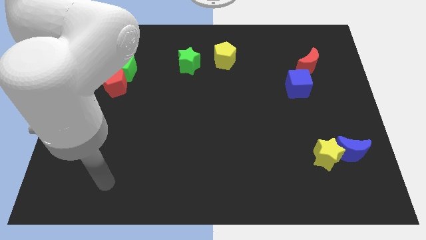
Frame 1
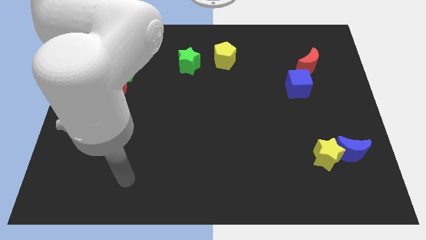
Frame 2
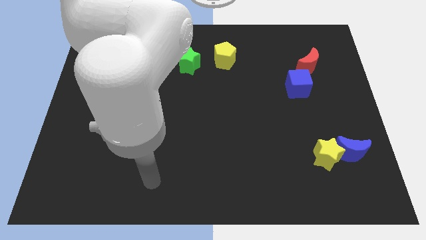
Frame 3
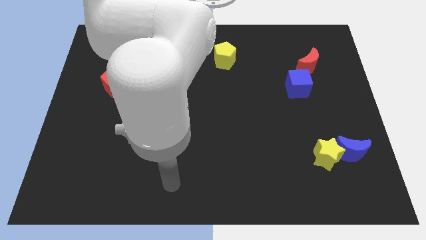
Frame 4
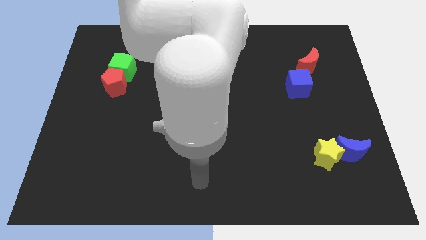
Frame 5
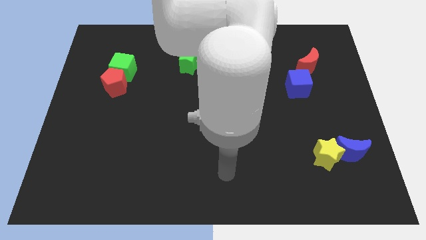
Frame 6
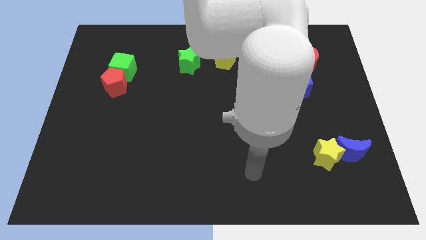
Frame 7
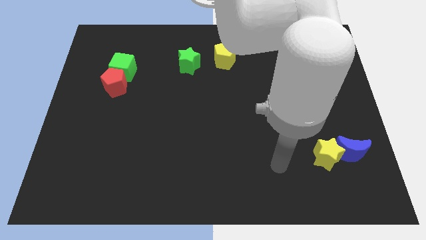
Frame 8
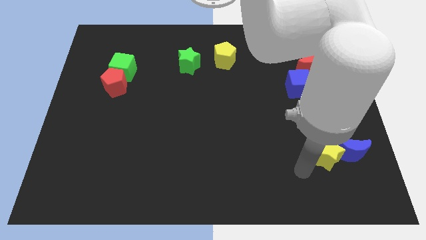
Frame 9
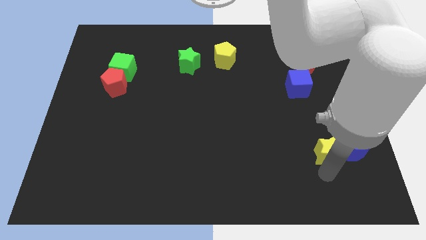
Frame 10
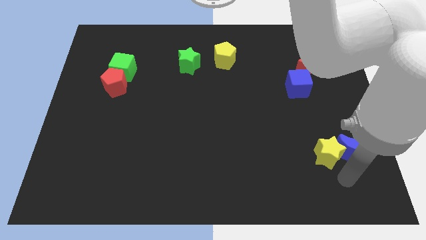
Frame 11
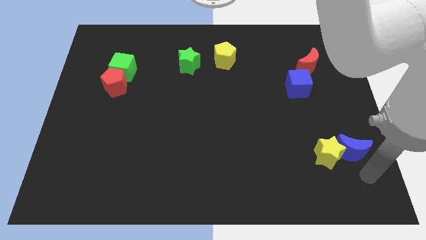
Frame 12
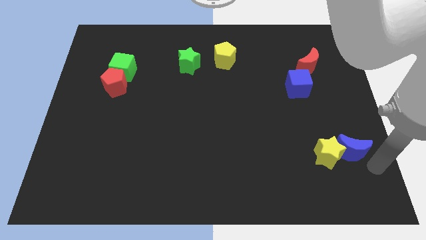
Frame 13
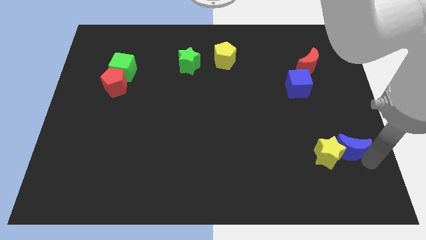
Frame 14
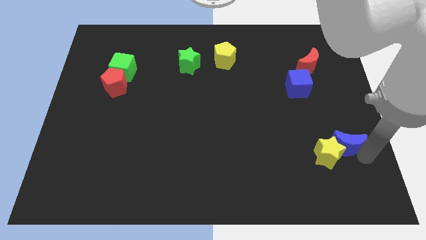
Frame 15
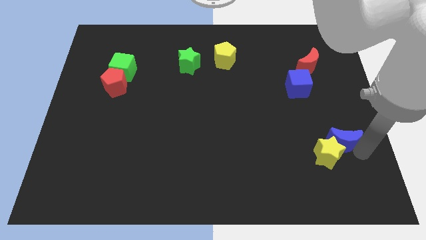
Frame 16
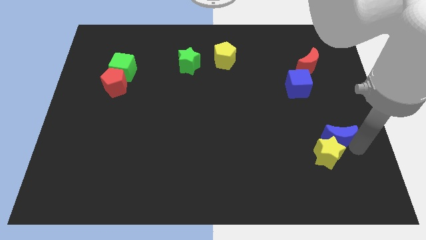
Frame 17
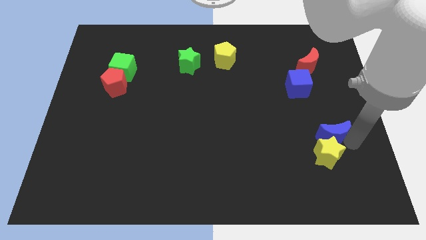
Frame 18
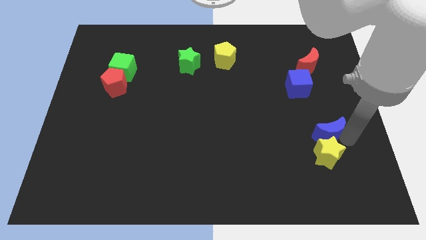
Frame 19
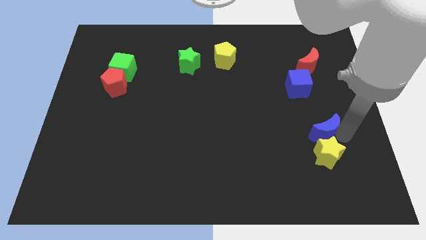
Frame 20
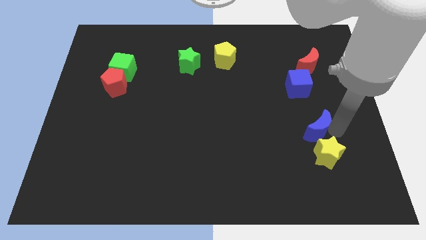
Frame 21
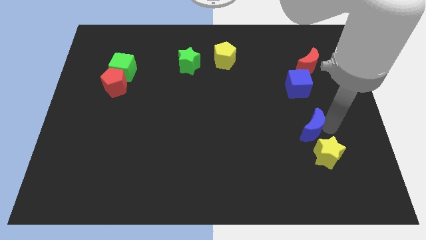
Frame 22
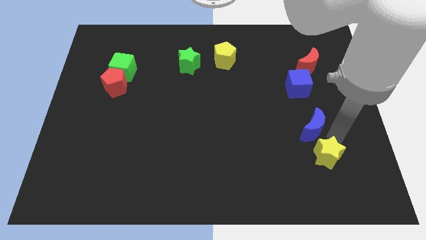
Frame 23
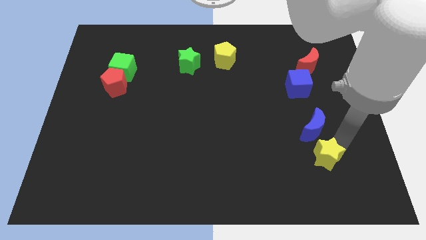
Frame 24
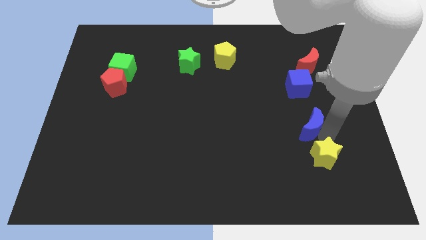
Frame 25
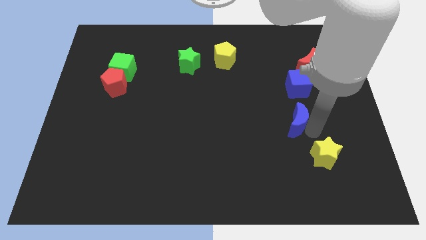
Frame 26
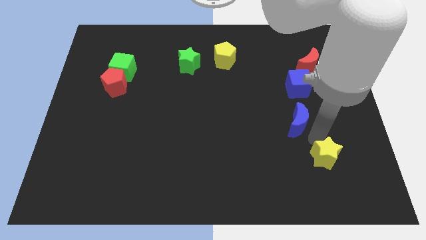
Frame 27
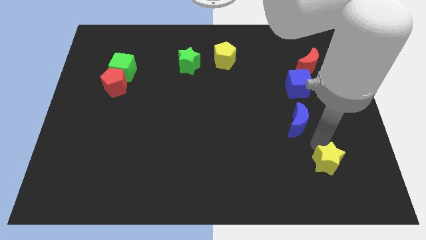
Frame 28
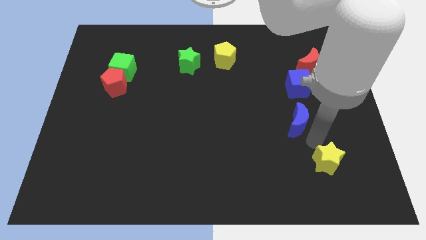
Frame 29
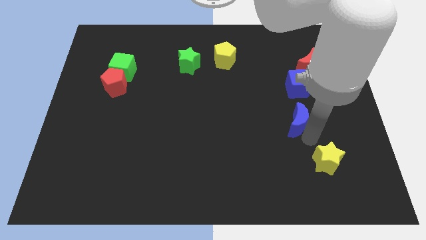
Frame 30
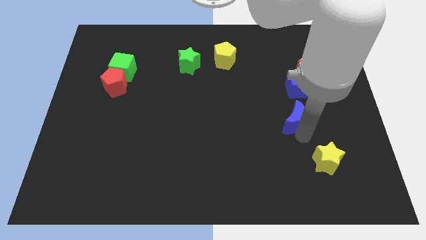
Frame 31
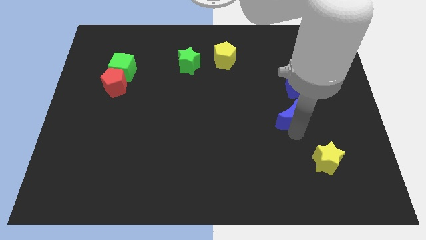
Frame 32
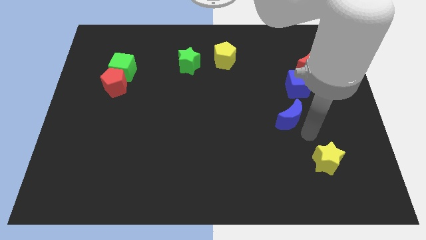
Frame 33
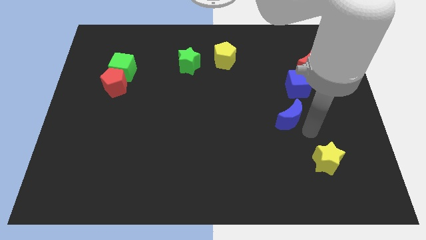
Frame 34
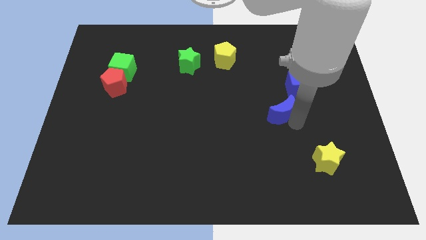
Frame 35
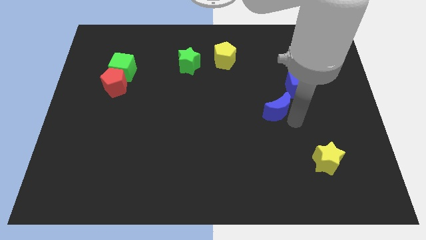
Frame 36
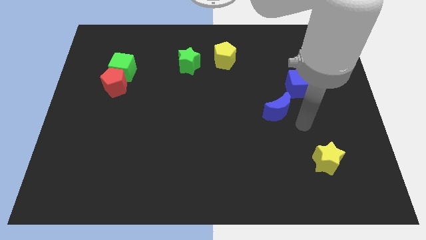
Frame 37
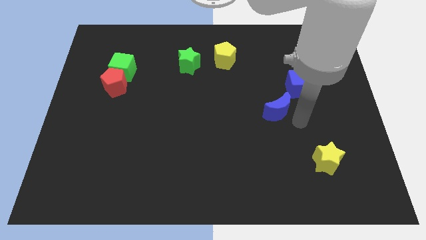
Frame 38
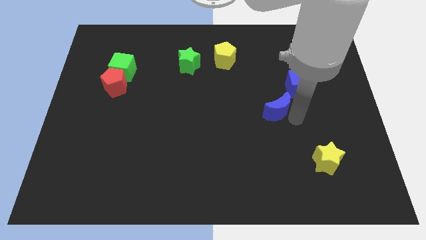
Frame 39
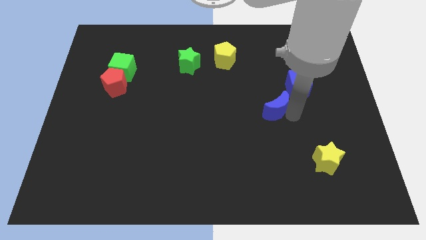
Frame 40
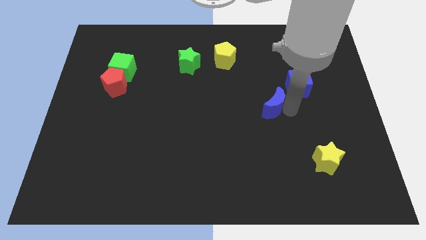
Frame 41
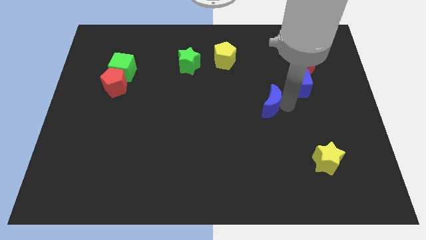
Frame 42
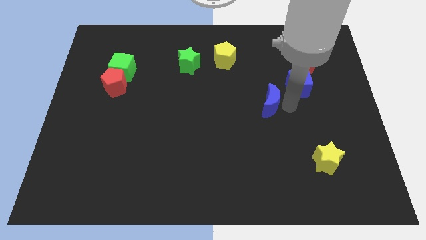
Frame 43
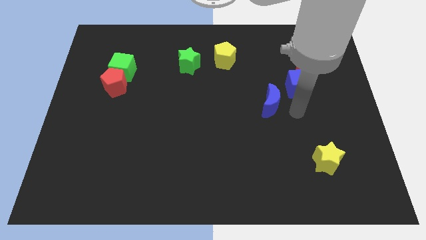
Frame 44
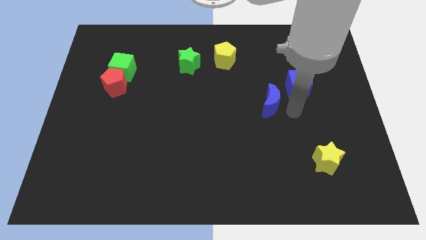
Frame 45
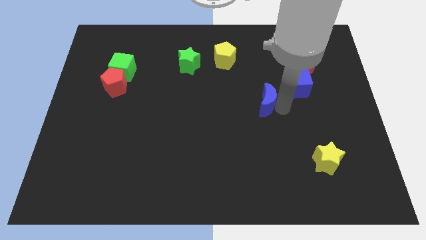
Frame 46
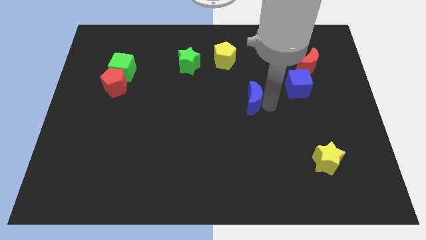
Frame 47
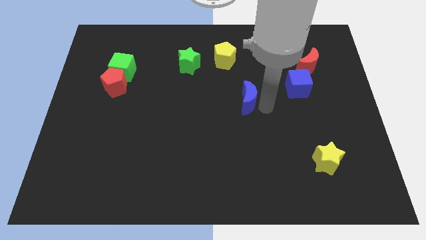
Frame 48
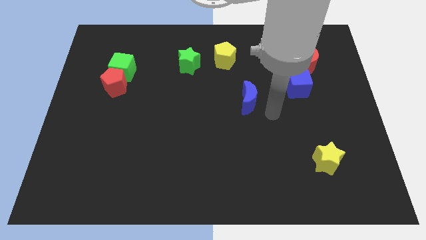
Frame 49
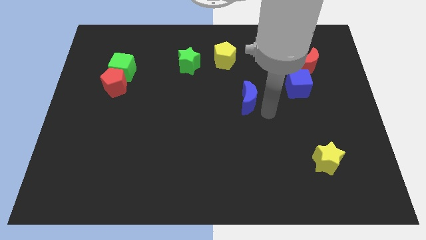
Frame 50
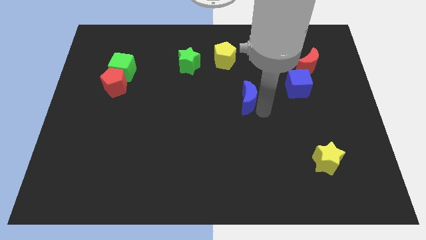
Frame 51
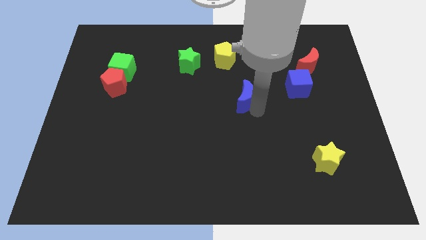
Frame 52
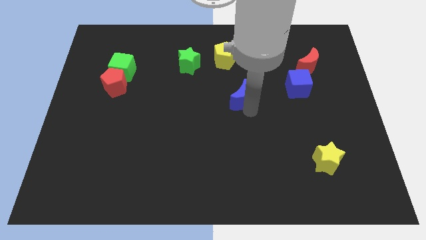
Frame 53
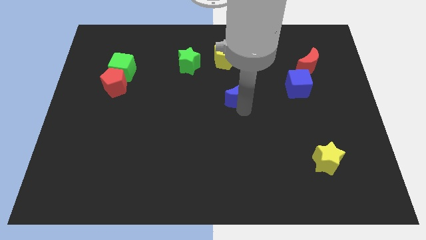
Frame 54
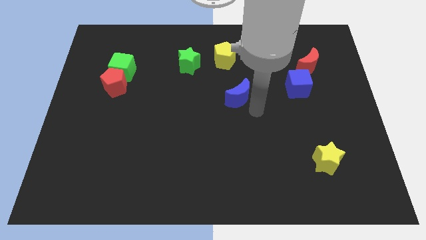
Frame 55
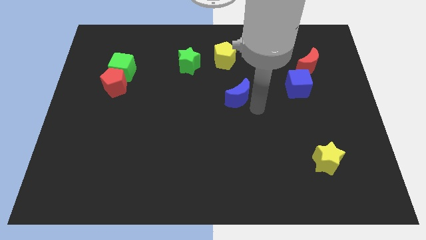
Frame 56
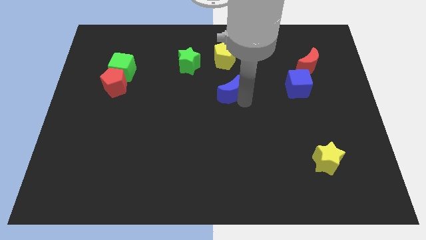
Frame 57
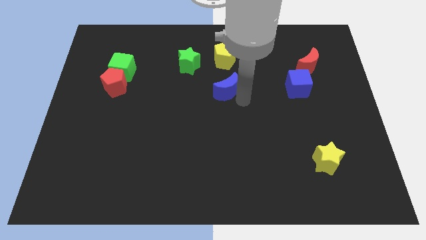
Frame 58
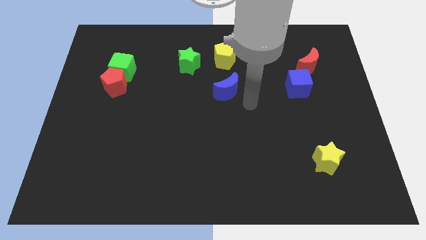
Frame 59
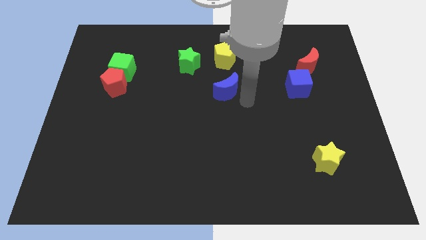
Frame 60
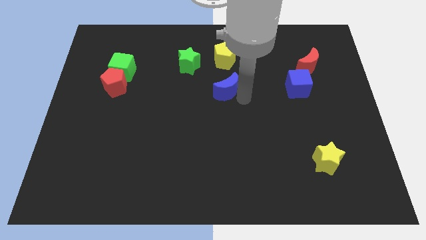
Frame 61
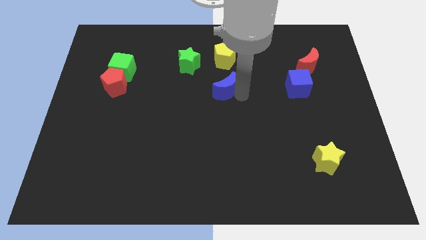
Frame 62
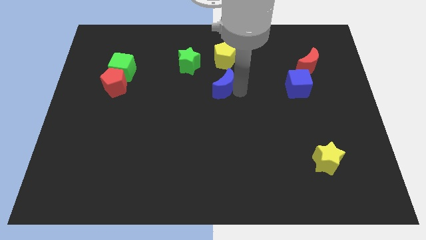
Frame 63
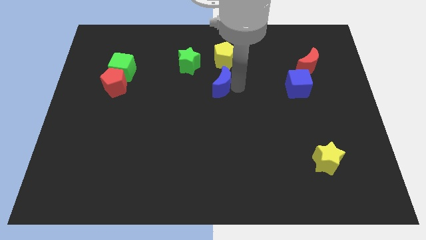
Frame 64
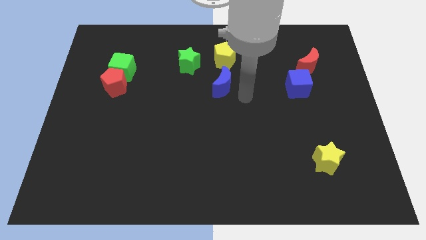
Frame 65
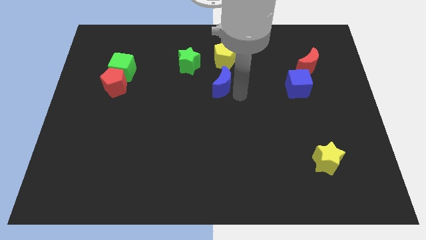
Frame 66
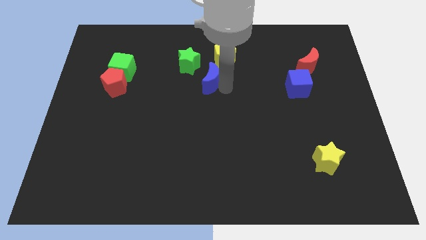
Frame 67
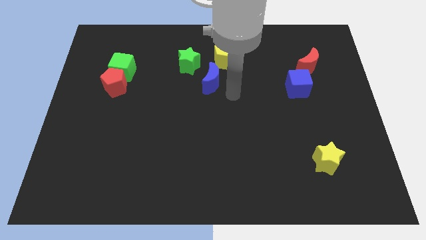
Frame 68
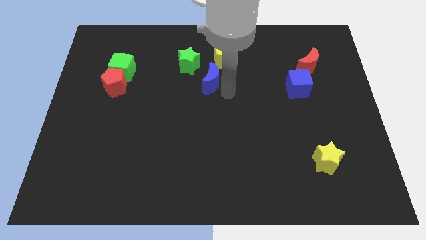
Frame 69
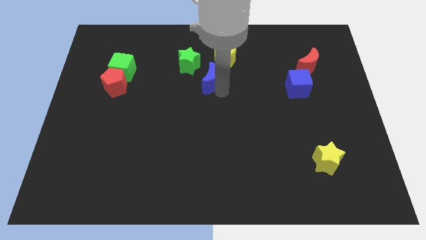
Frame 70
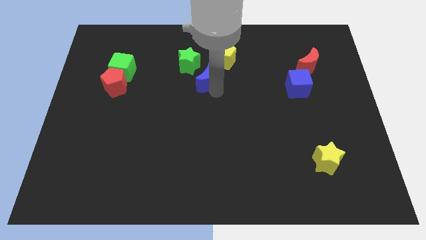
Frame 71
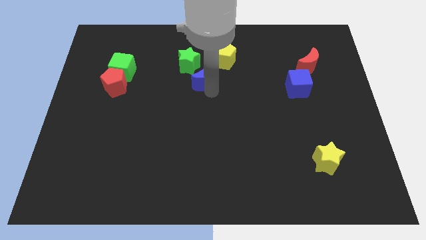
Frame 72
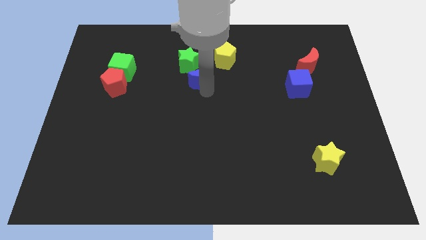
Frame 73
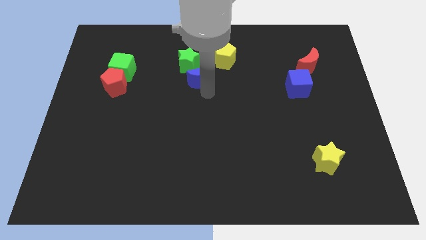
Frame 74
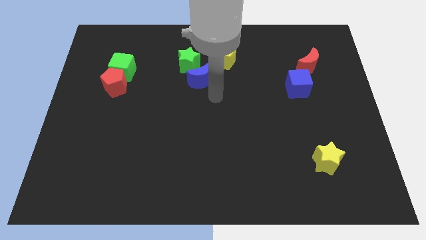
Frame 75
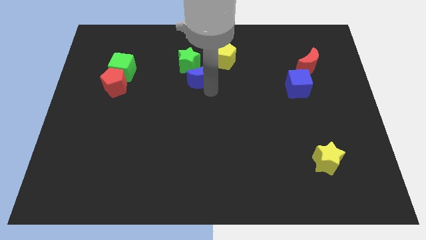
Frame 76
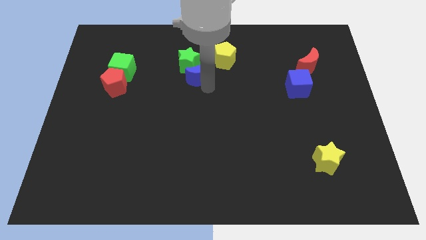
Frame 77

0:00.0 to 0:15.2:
push the blue moon next to the green star
